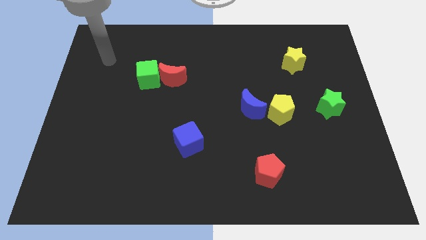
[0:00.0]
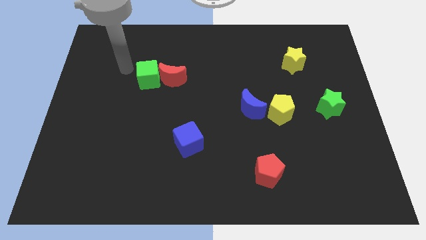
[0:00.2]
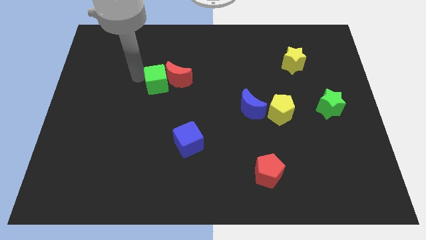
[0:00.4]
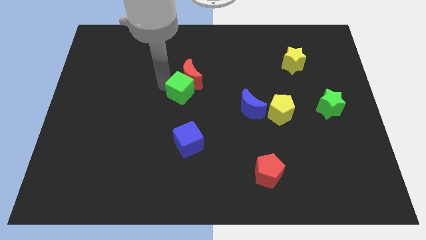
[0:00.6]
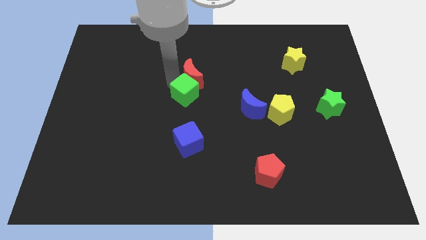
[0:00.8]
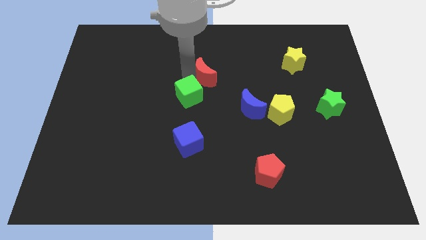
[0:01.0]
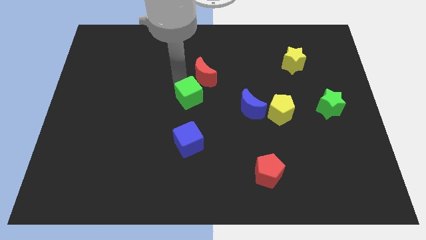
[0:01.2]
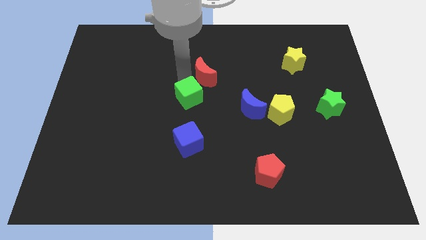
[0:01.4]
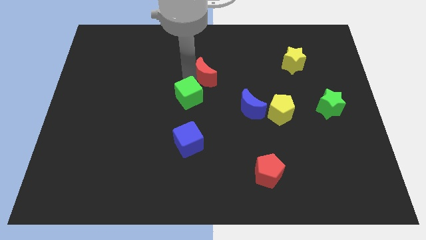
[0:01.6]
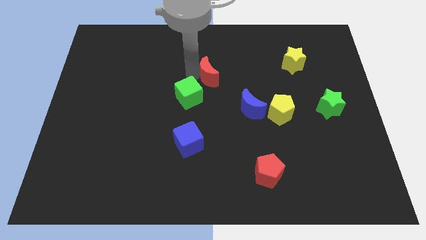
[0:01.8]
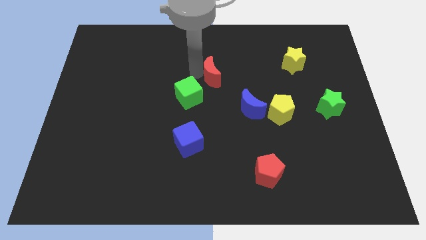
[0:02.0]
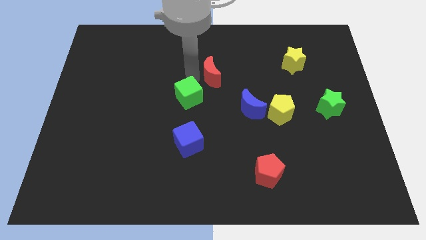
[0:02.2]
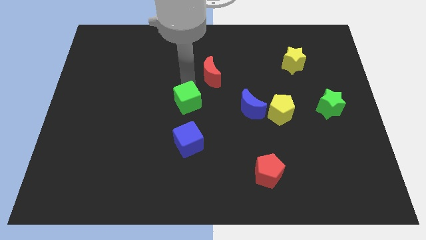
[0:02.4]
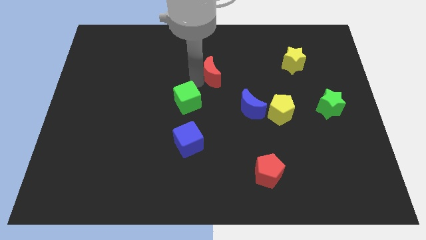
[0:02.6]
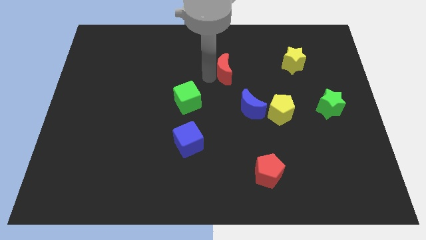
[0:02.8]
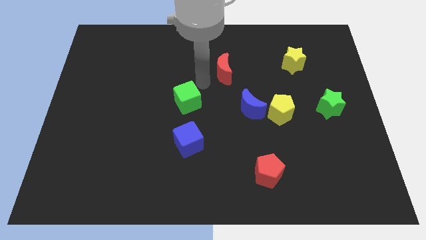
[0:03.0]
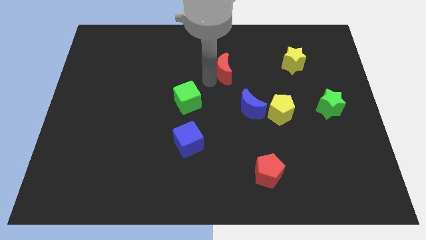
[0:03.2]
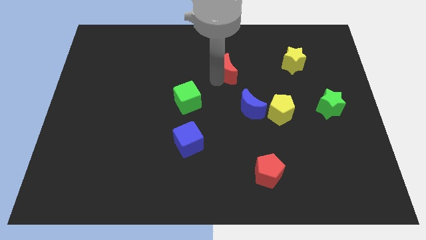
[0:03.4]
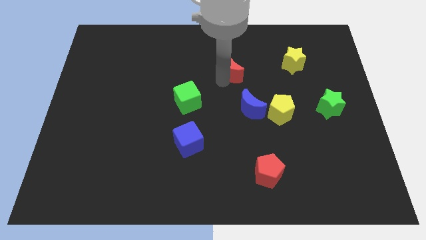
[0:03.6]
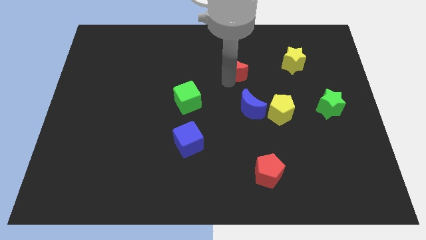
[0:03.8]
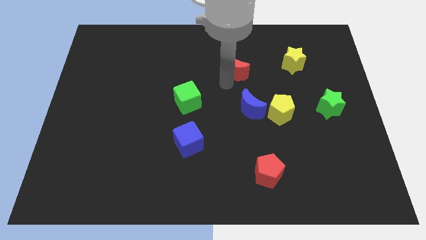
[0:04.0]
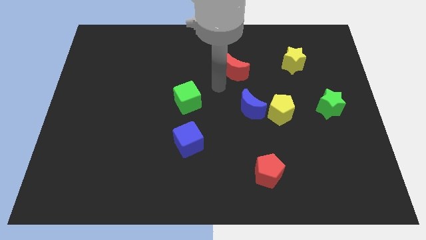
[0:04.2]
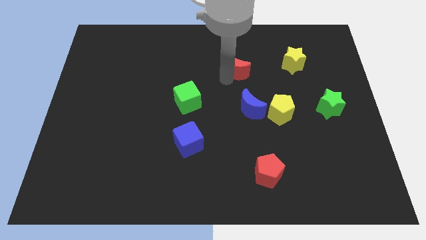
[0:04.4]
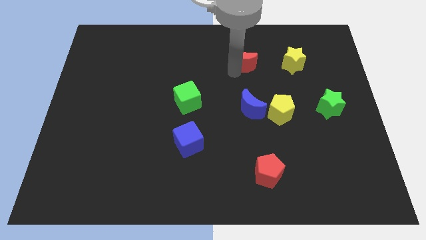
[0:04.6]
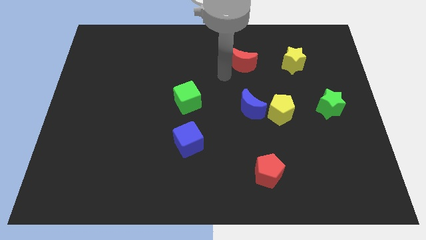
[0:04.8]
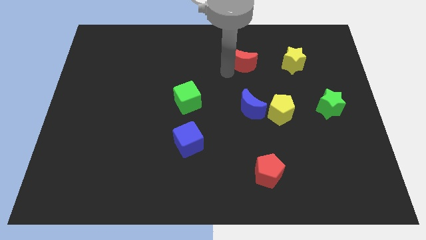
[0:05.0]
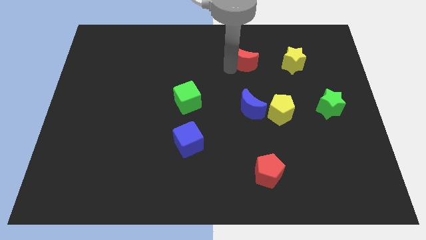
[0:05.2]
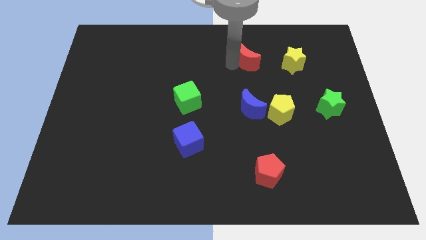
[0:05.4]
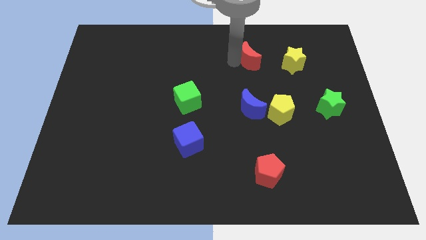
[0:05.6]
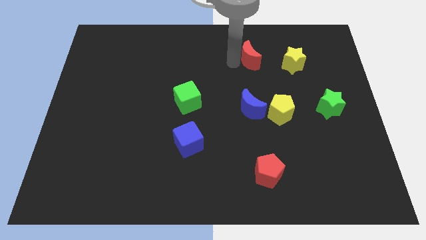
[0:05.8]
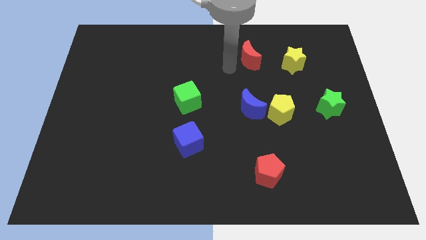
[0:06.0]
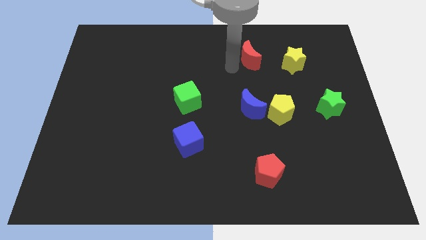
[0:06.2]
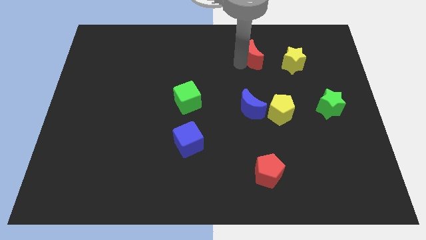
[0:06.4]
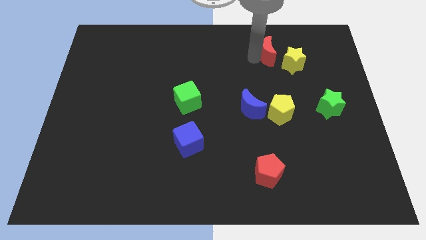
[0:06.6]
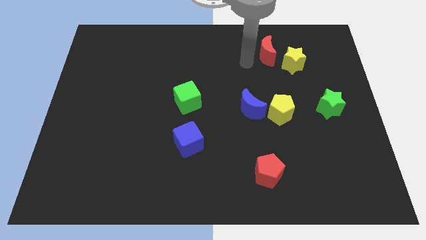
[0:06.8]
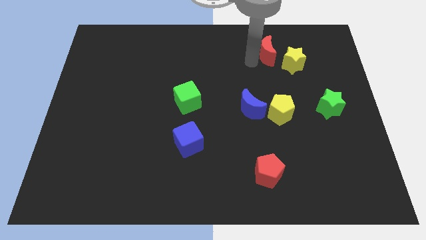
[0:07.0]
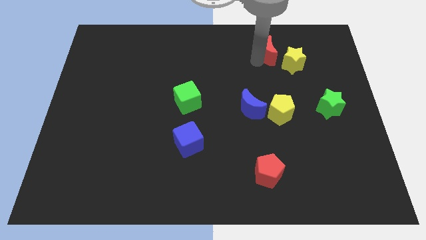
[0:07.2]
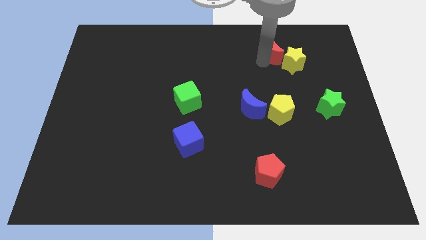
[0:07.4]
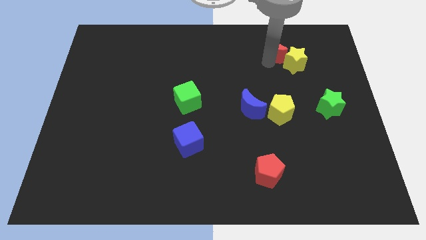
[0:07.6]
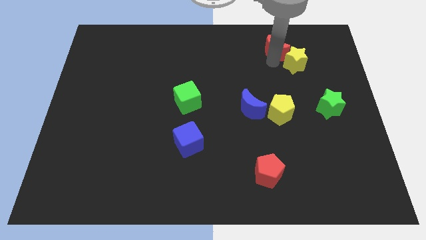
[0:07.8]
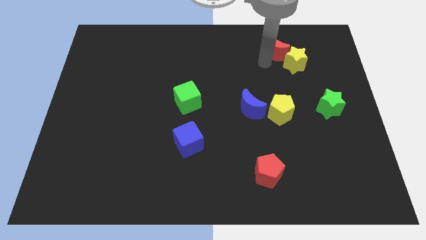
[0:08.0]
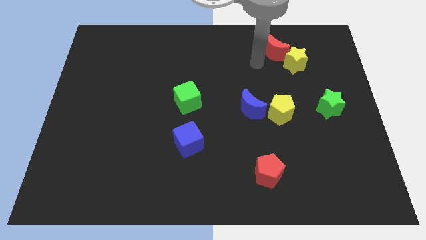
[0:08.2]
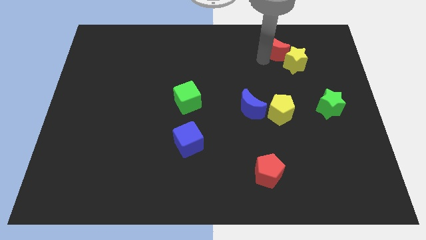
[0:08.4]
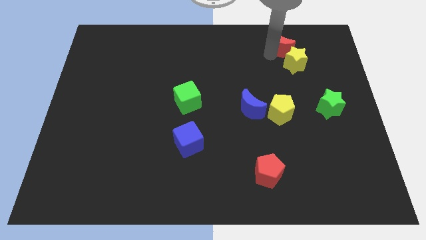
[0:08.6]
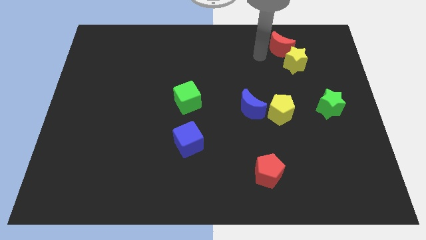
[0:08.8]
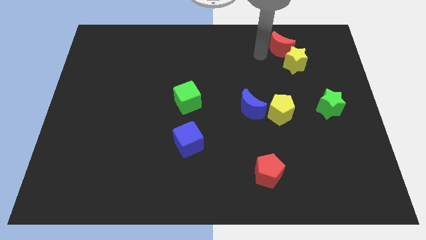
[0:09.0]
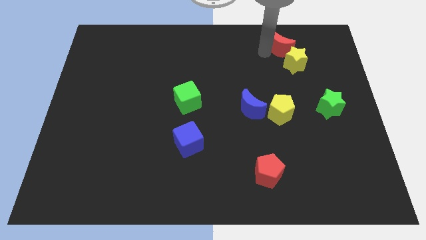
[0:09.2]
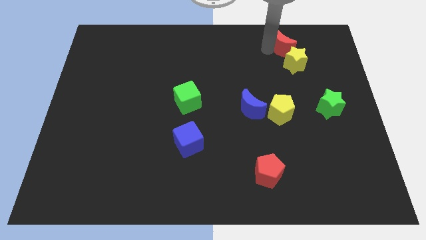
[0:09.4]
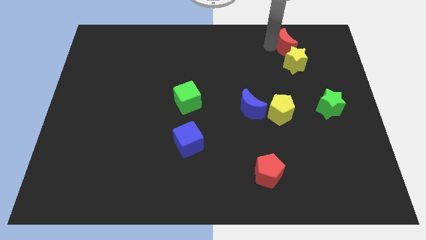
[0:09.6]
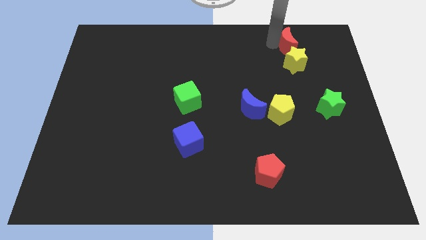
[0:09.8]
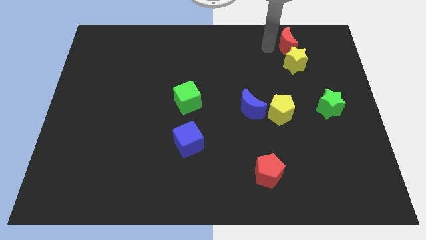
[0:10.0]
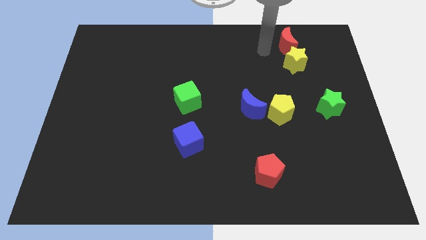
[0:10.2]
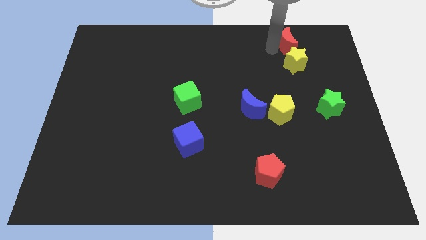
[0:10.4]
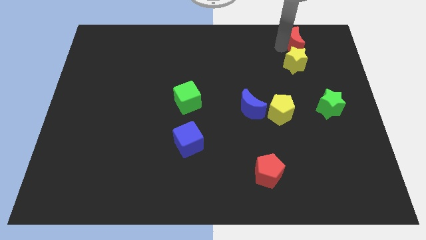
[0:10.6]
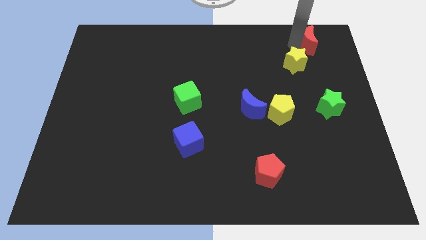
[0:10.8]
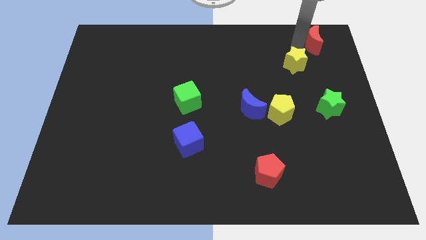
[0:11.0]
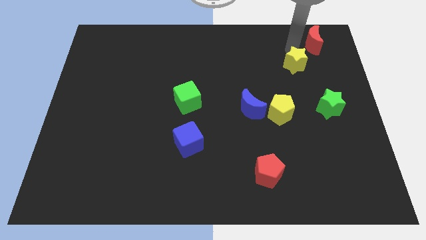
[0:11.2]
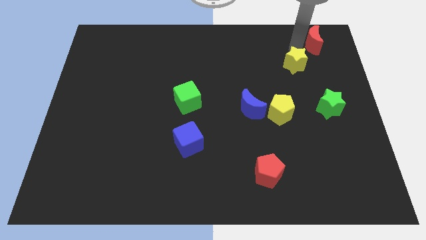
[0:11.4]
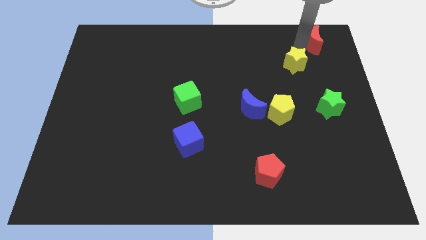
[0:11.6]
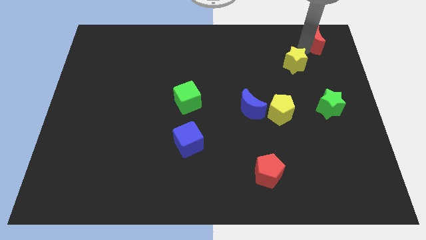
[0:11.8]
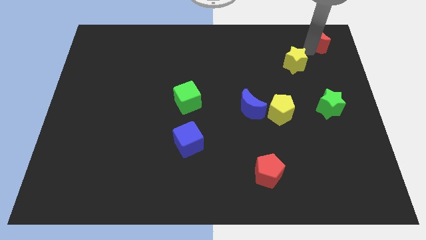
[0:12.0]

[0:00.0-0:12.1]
push the red moon to the top right
